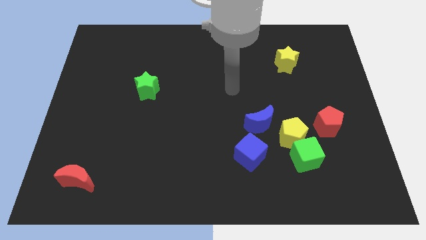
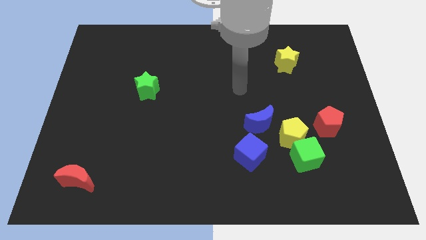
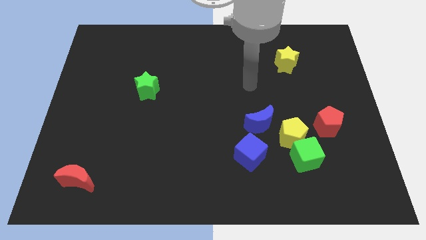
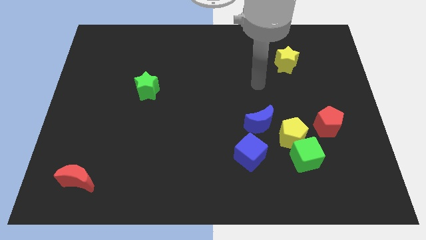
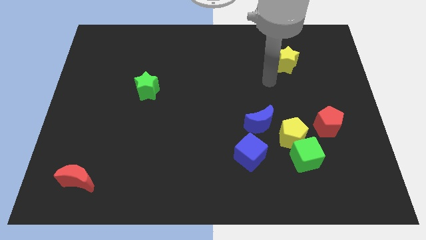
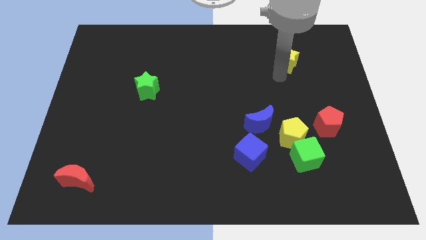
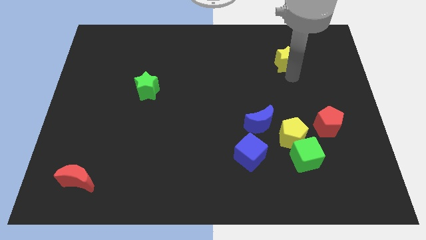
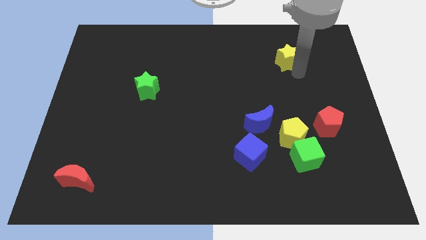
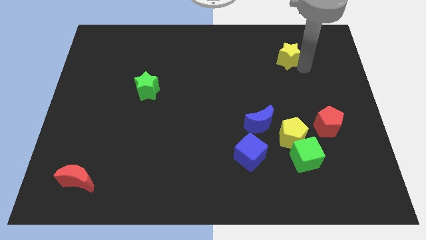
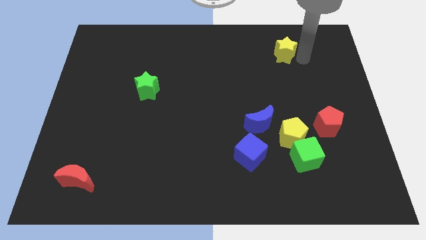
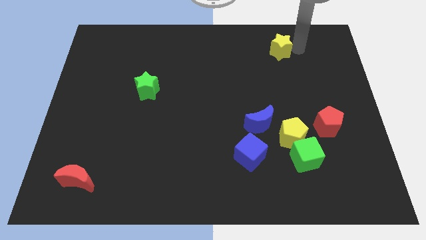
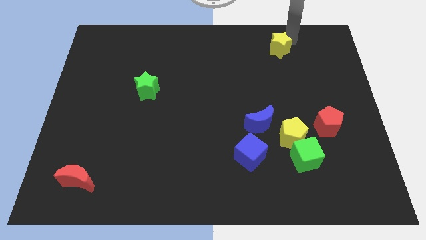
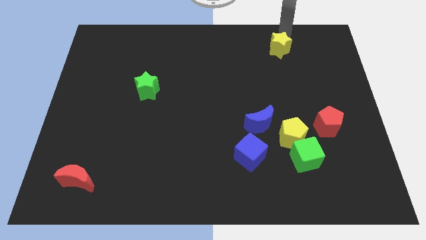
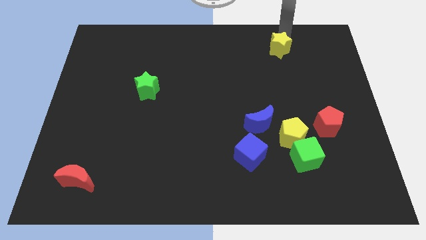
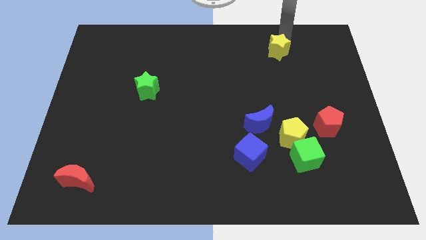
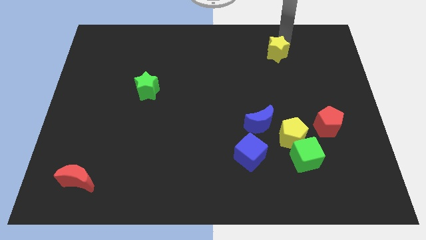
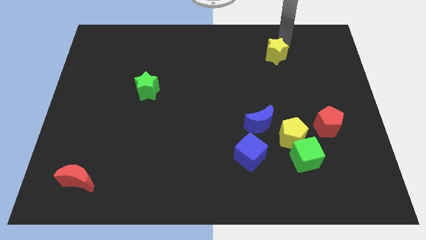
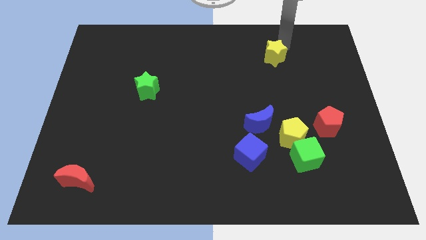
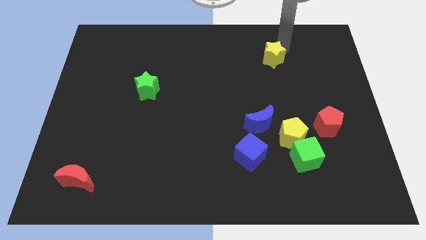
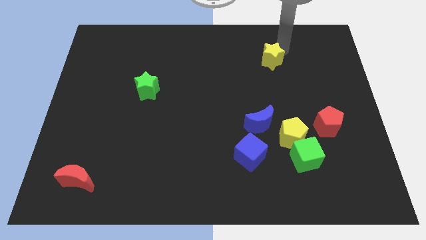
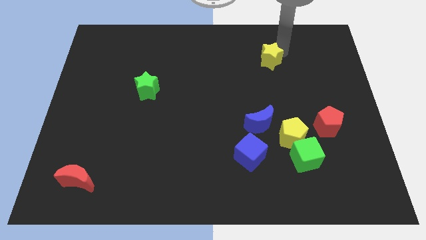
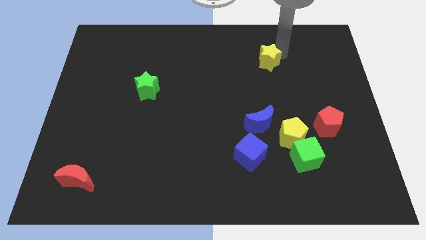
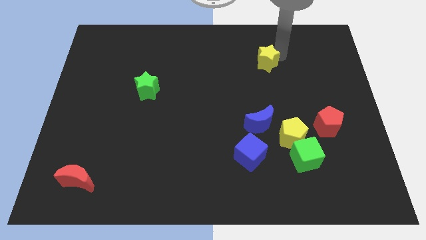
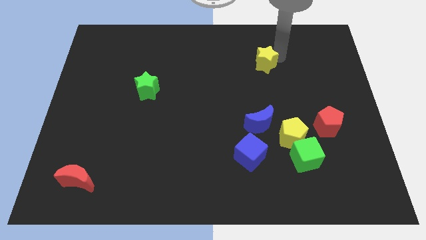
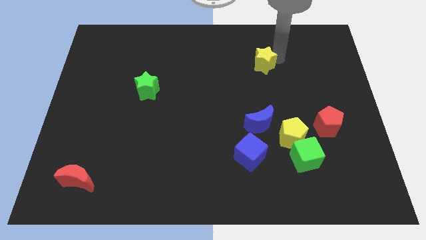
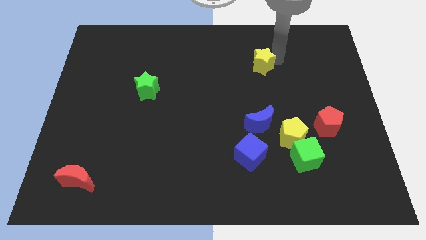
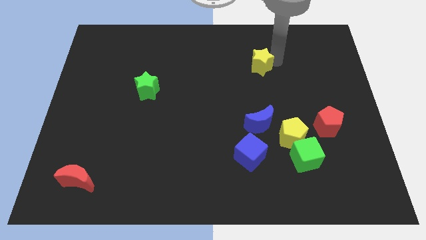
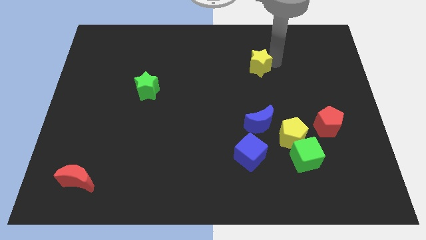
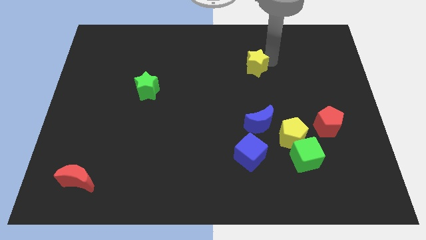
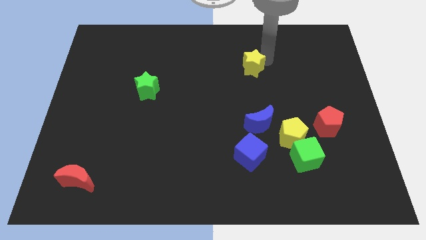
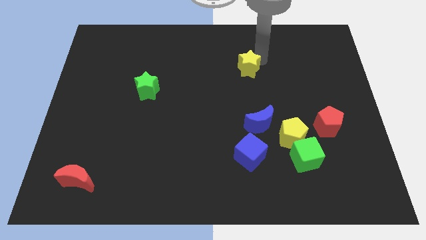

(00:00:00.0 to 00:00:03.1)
slide the yellow star a little bit downwards and to the left

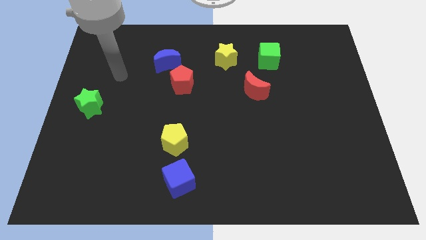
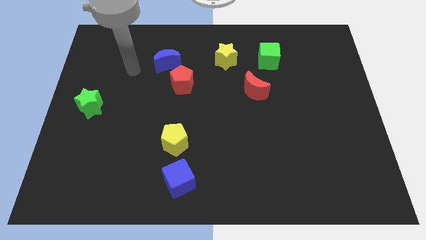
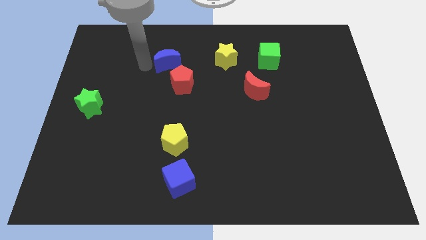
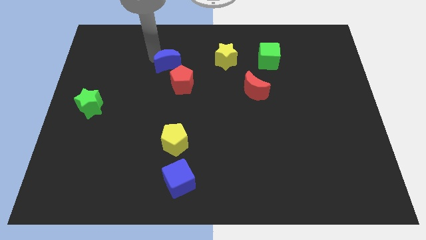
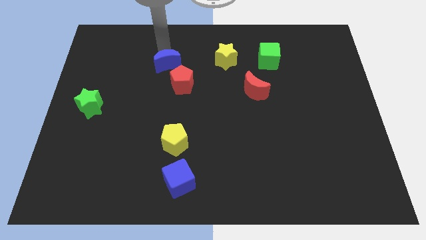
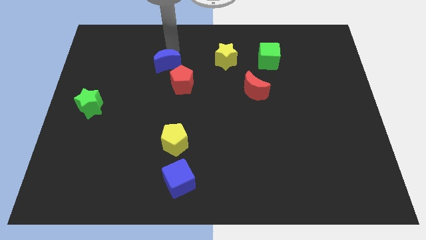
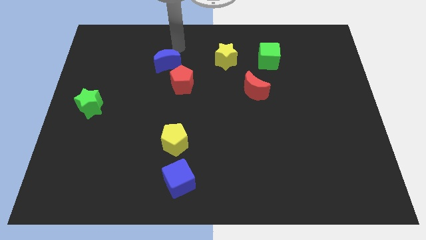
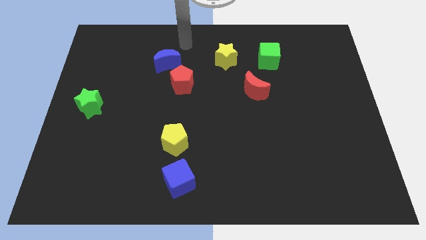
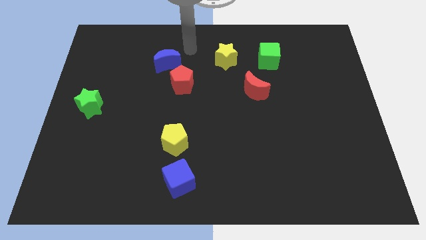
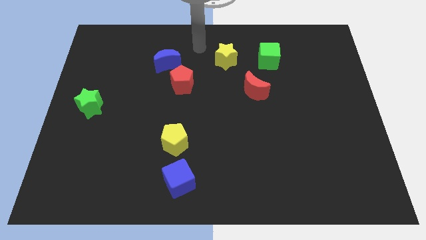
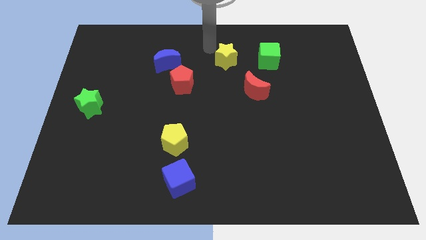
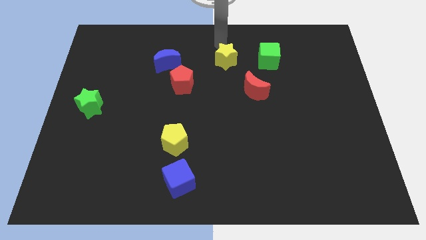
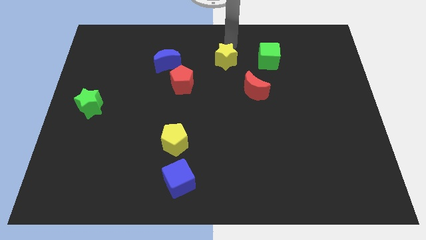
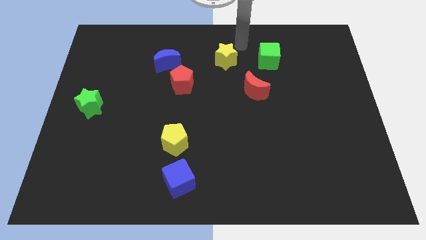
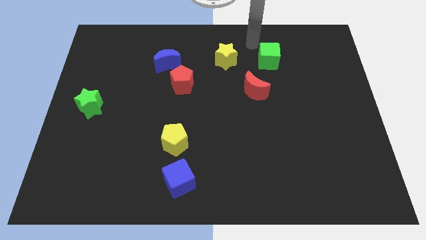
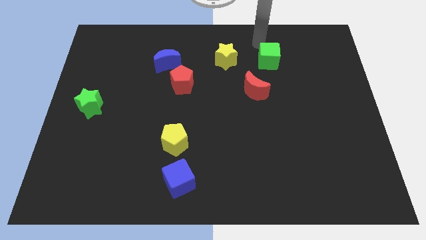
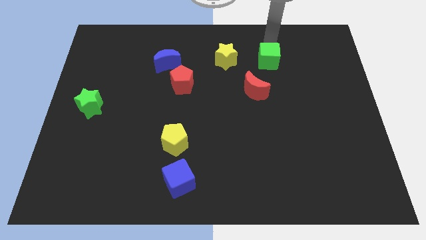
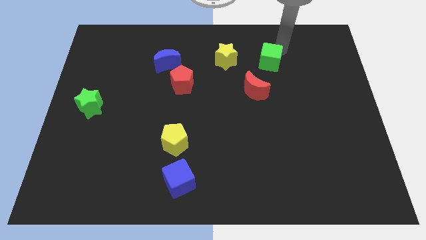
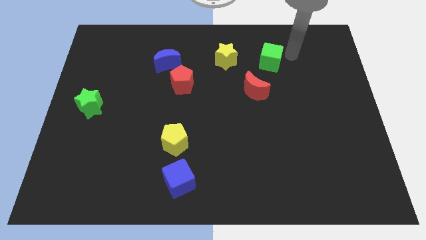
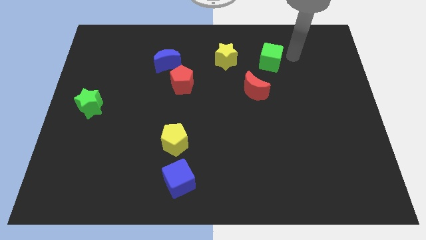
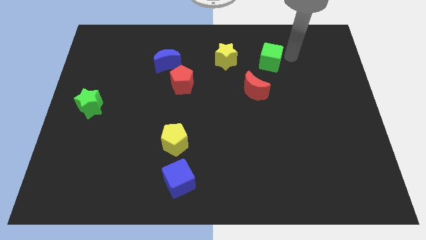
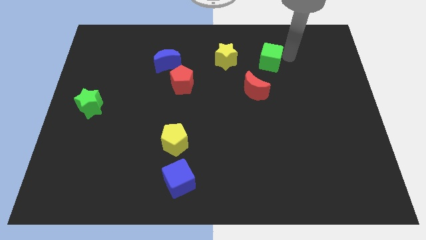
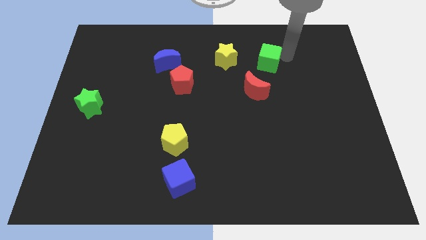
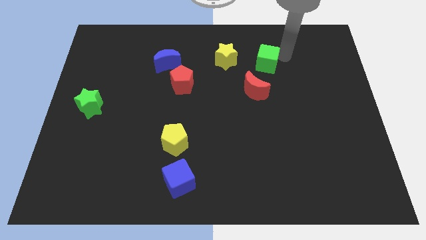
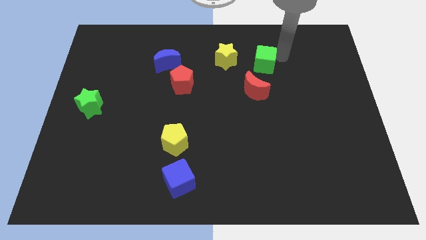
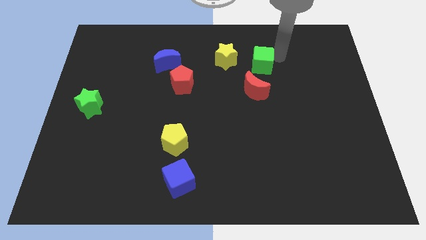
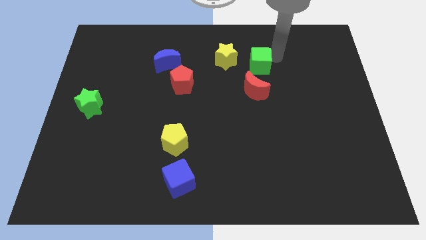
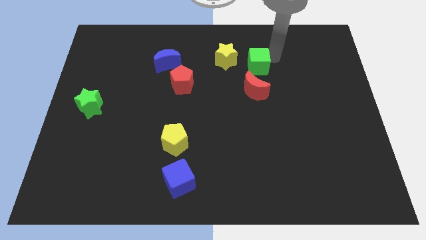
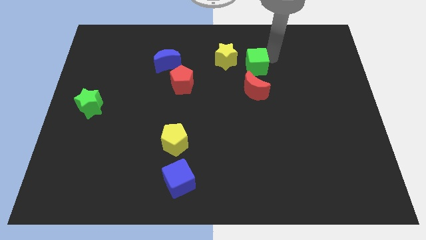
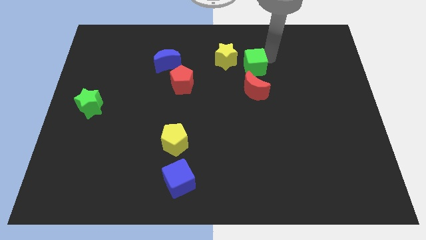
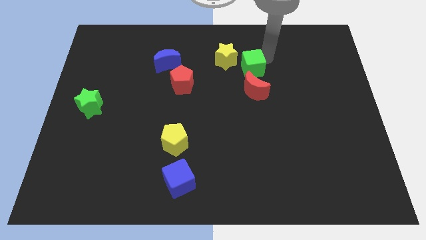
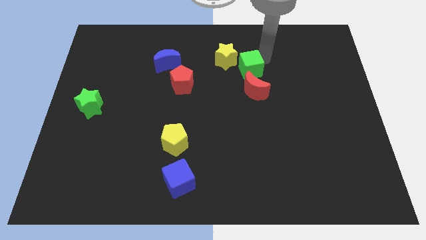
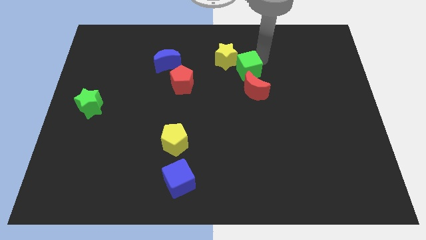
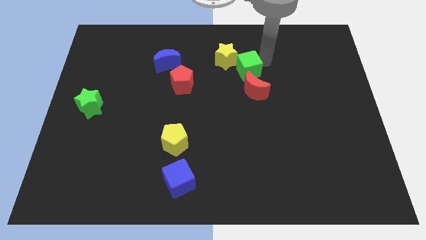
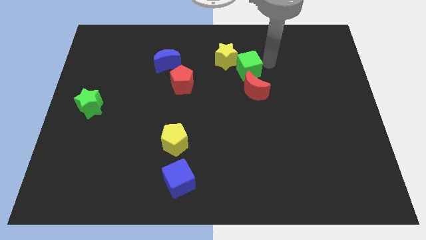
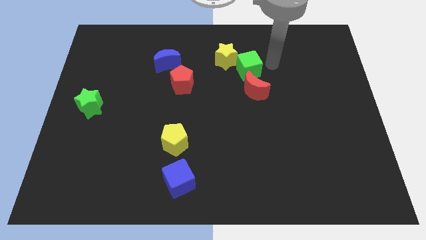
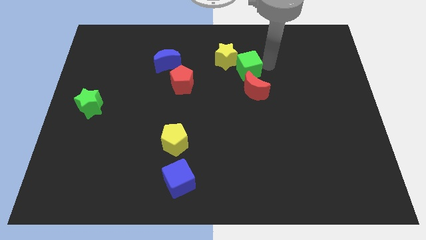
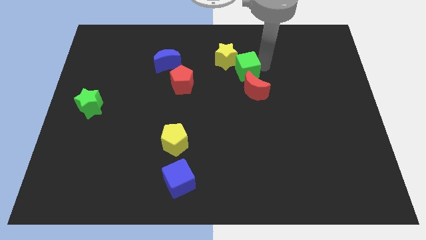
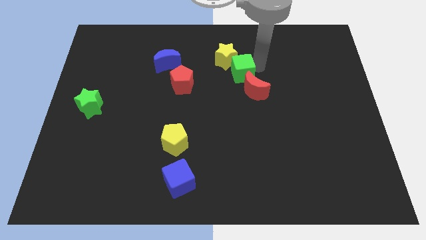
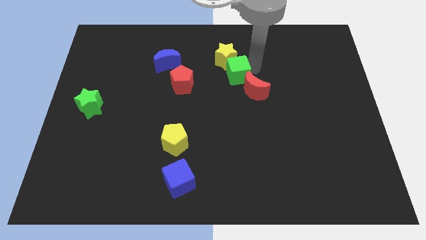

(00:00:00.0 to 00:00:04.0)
slightly push the green cube to the left

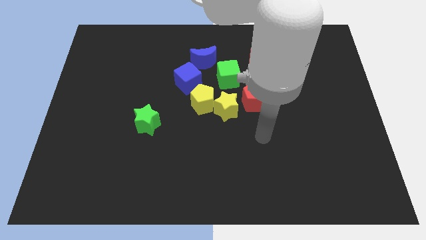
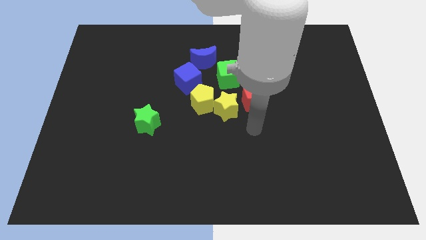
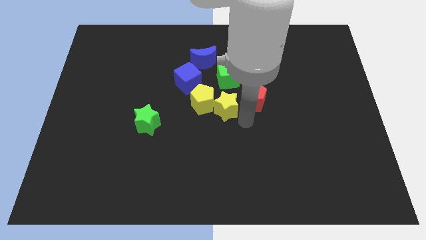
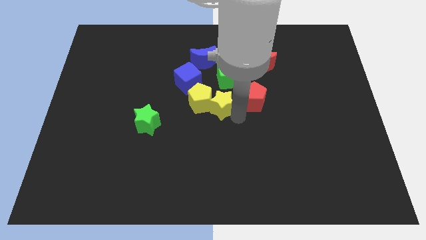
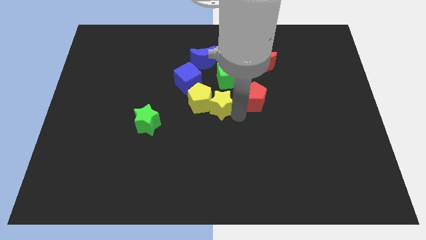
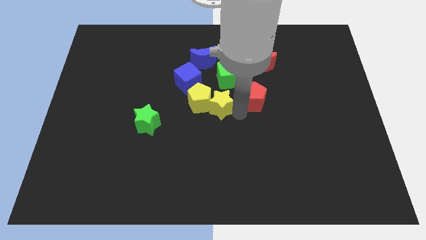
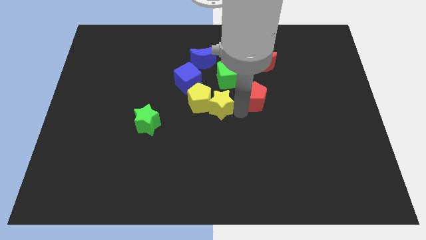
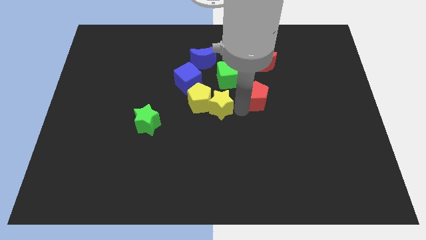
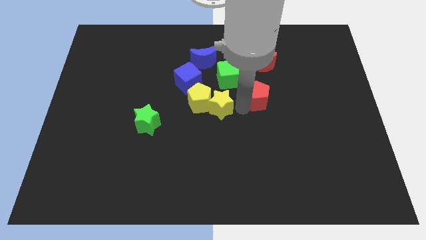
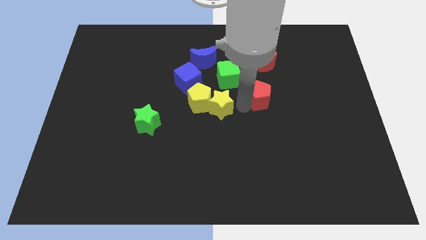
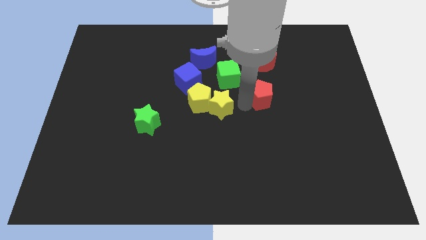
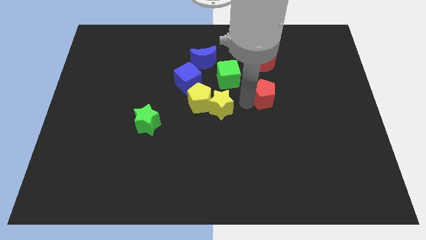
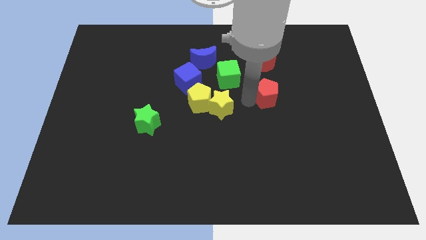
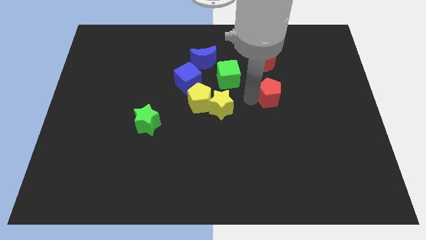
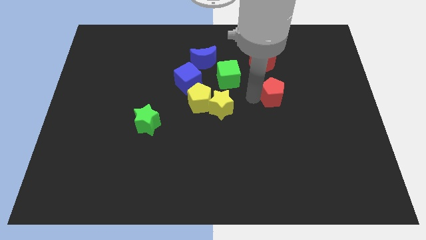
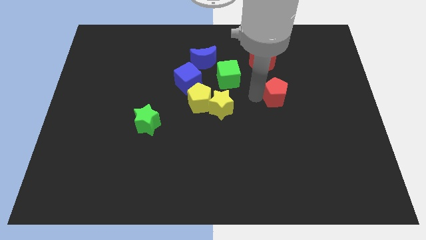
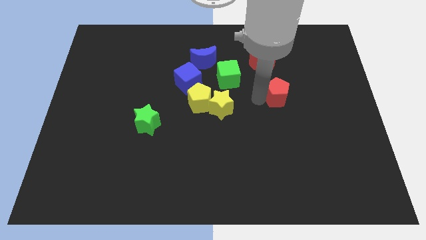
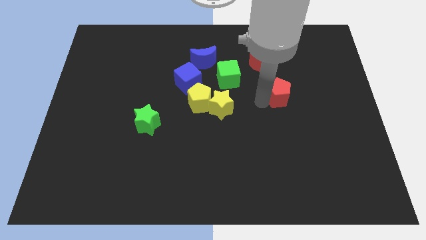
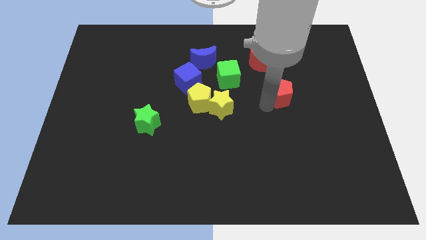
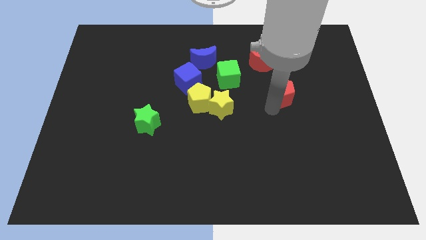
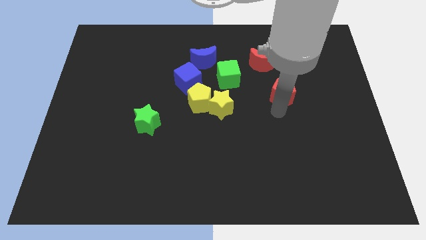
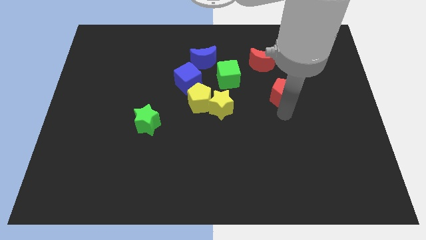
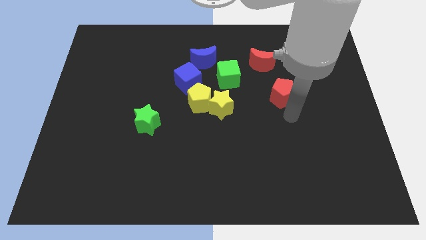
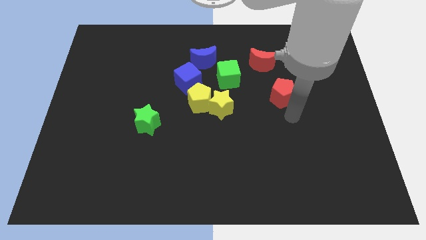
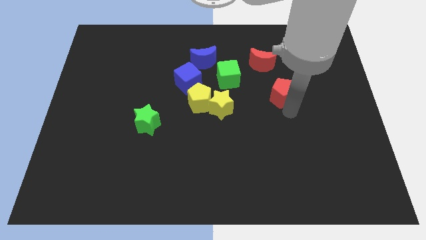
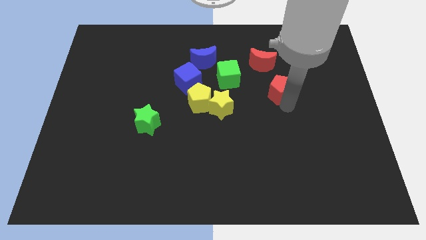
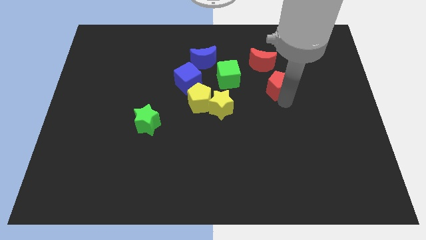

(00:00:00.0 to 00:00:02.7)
move the red pentagon a little up and to the right
